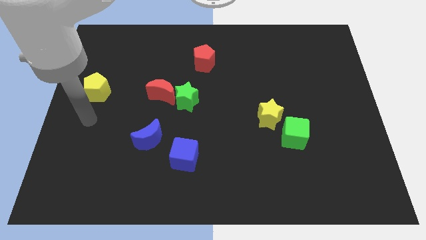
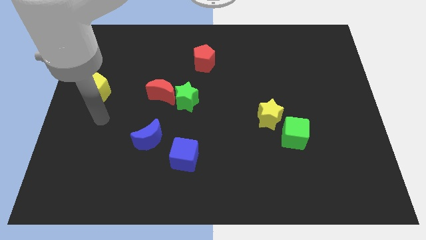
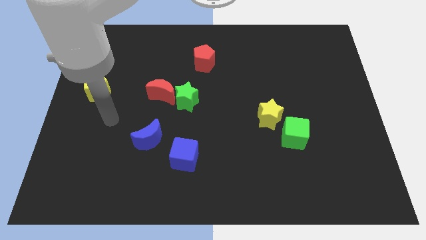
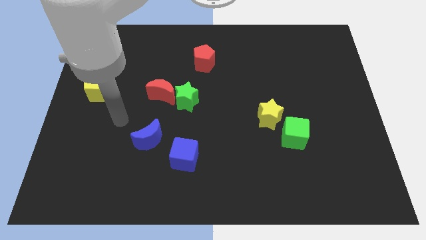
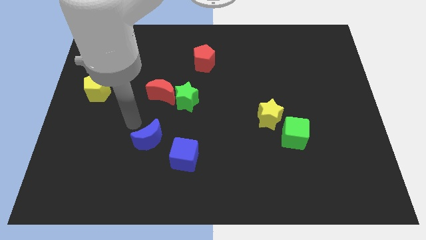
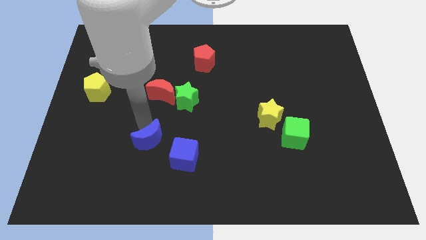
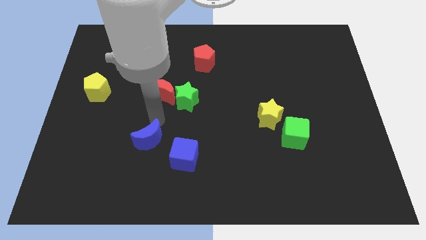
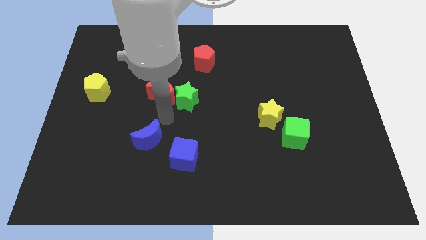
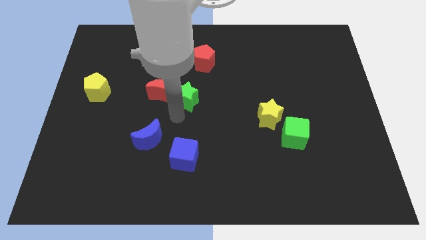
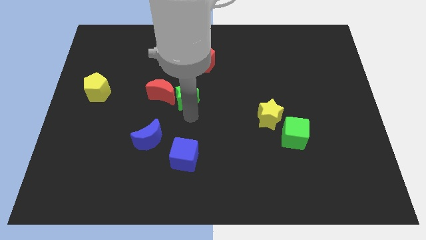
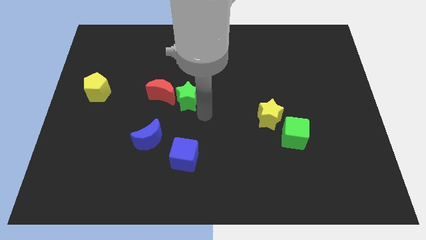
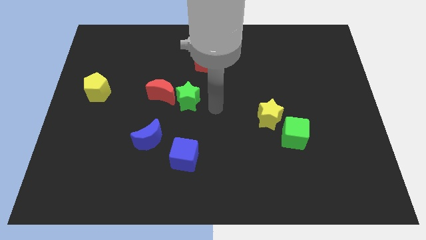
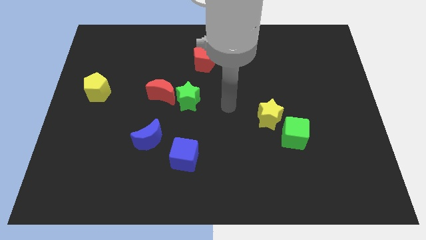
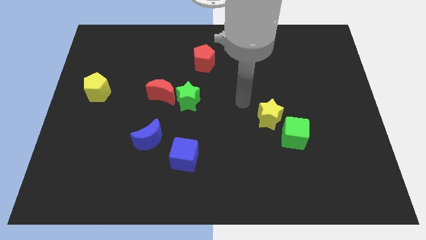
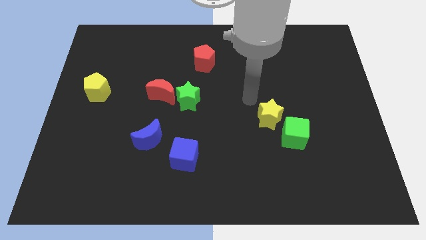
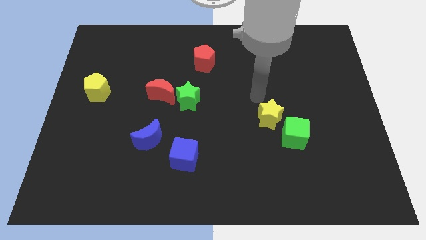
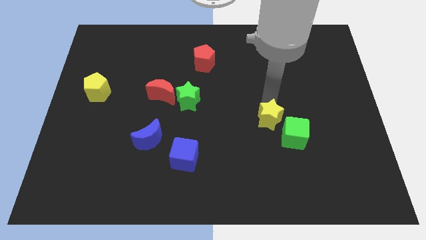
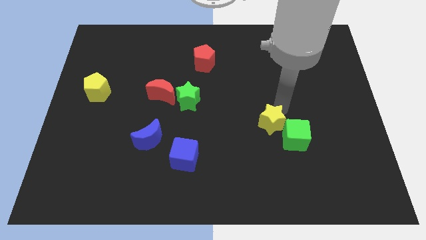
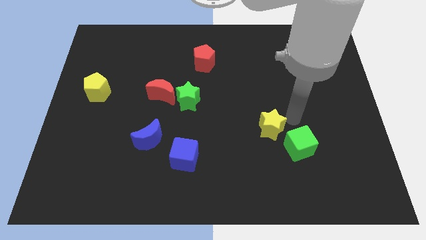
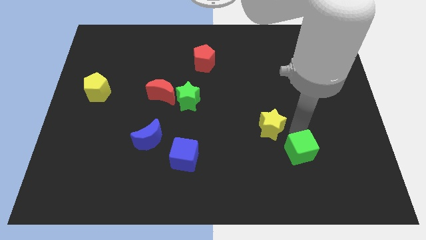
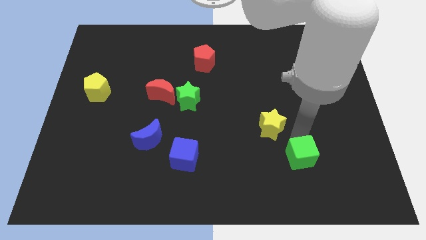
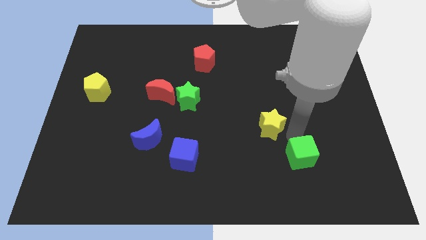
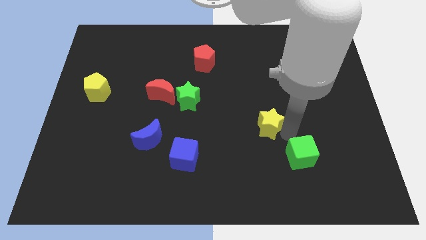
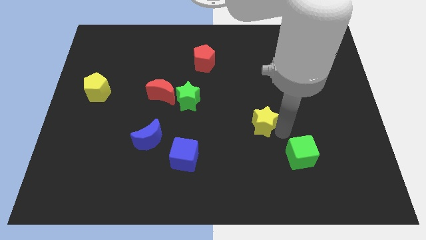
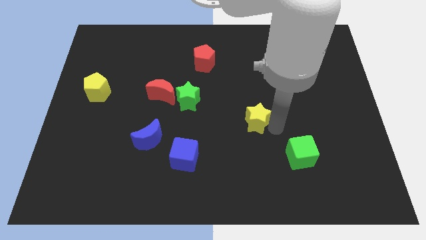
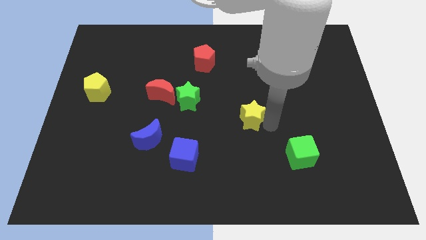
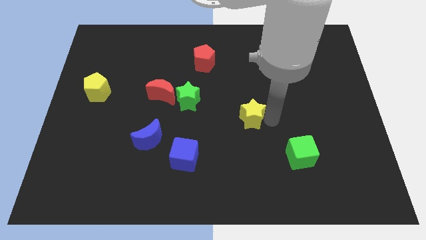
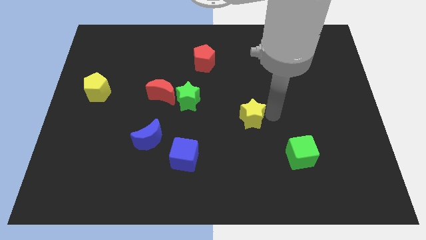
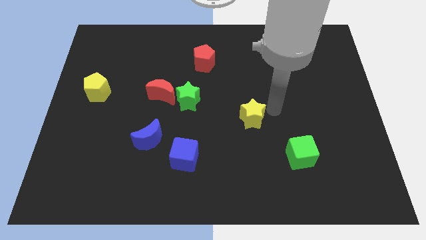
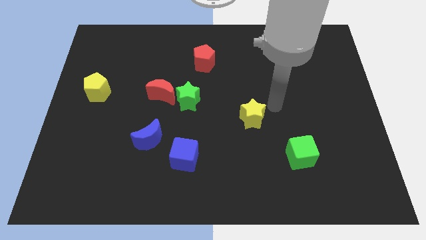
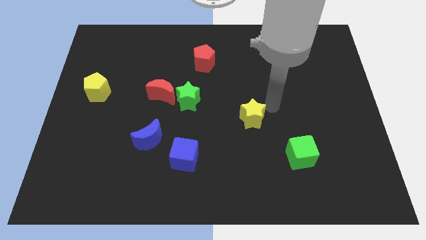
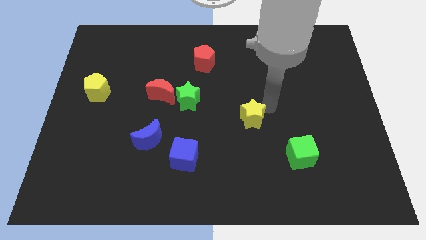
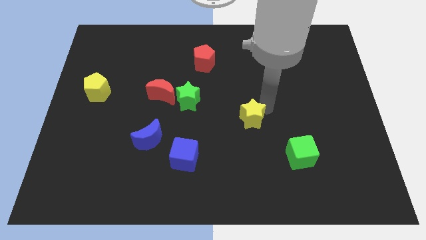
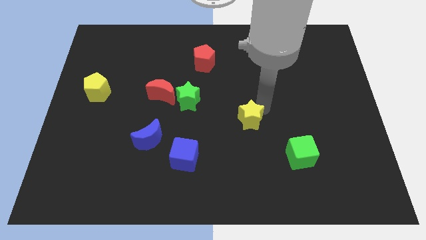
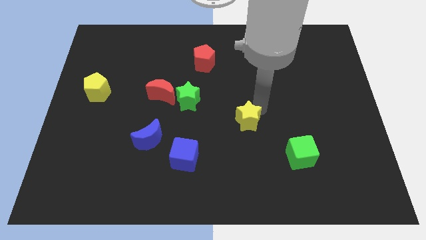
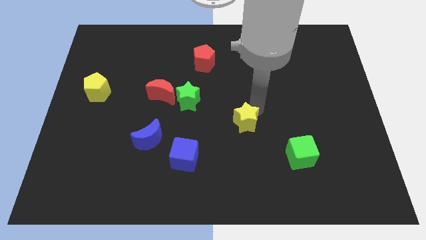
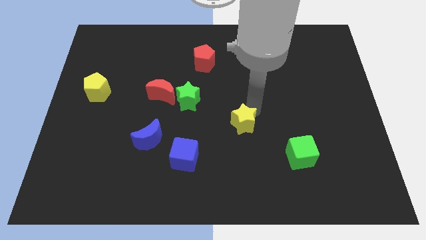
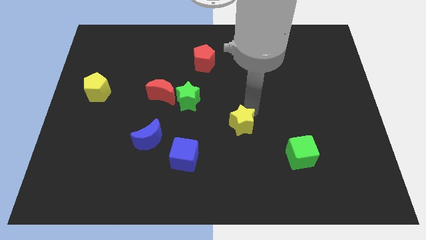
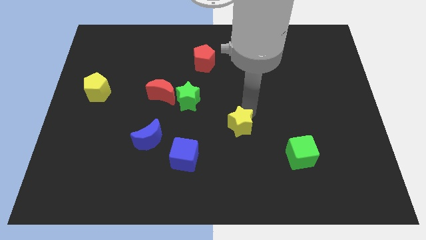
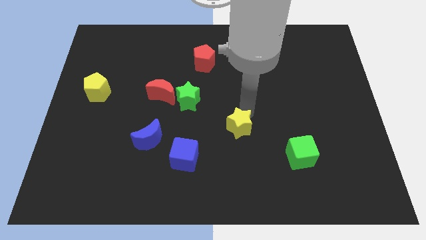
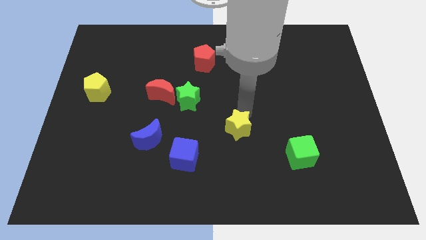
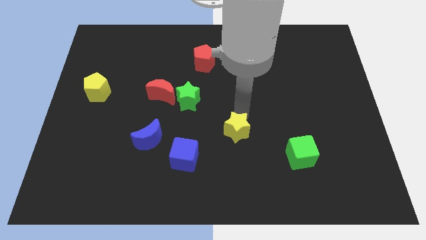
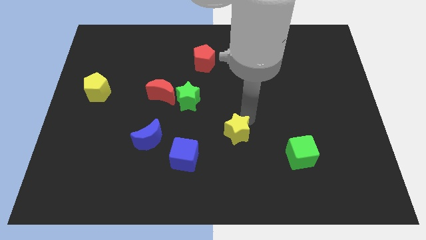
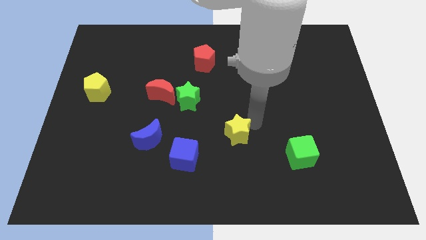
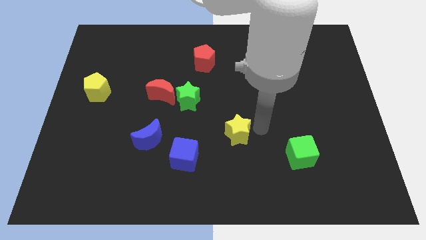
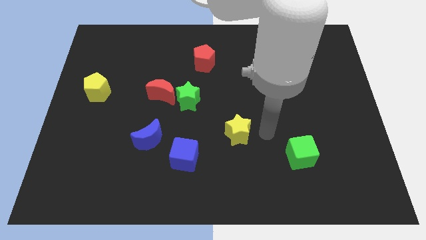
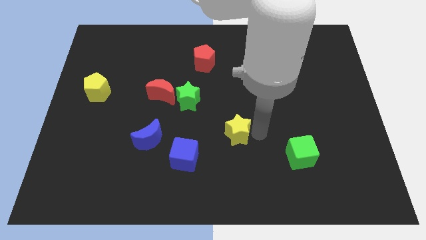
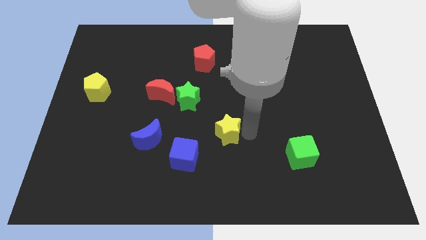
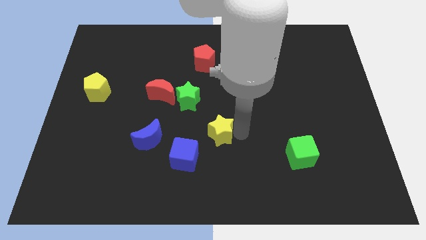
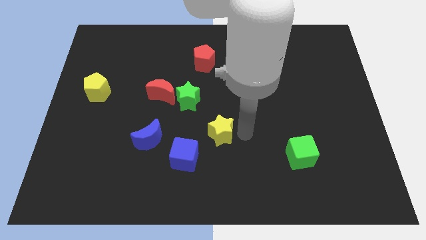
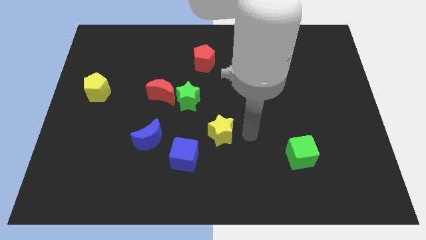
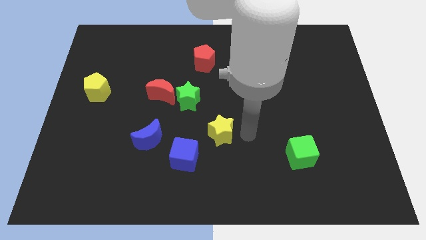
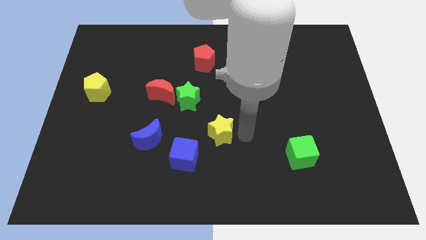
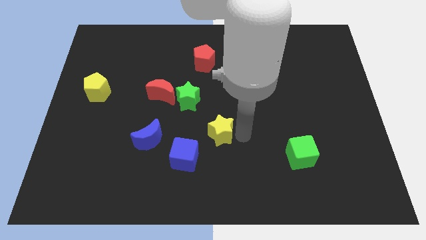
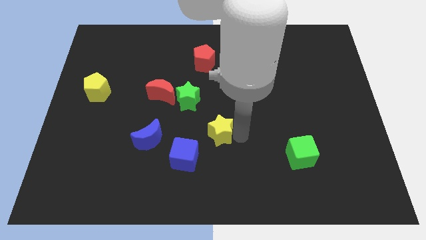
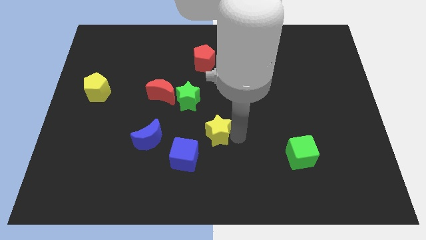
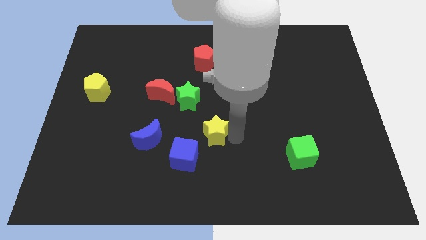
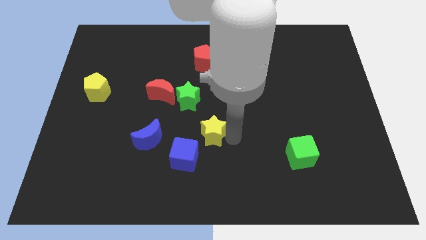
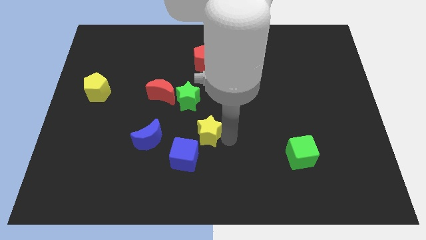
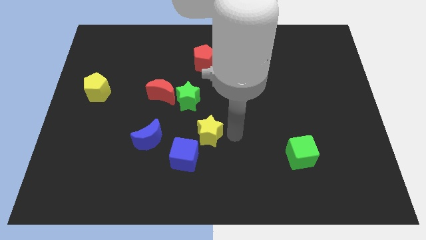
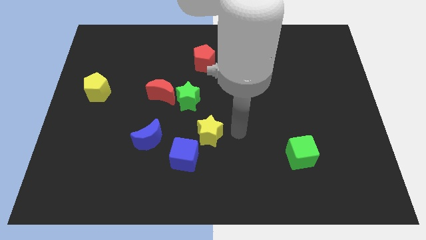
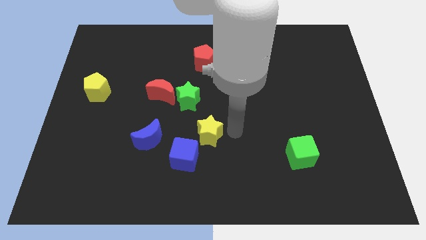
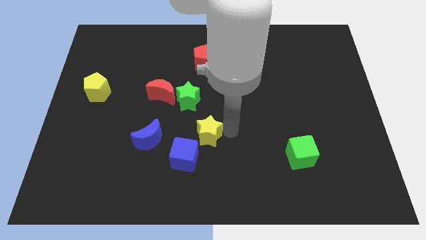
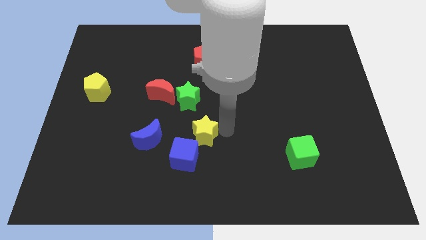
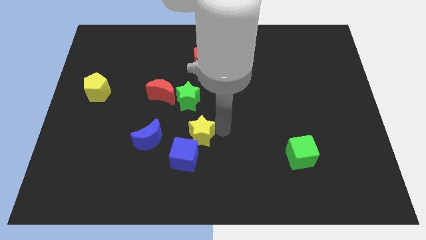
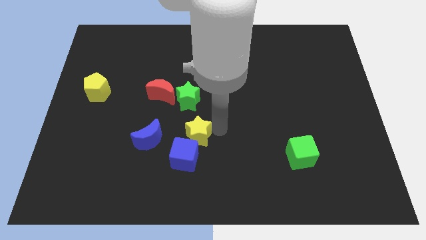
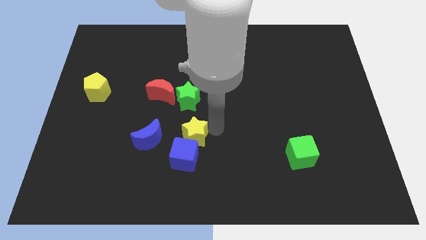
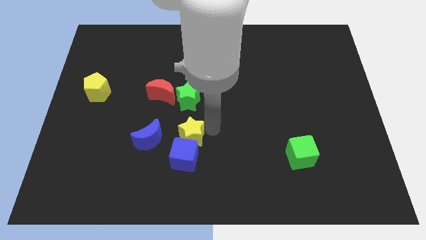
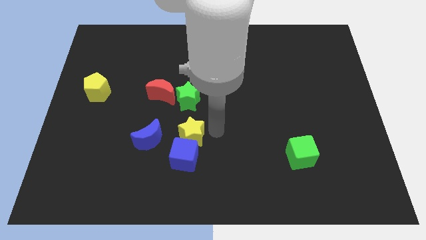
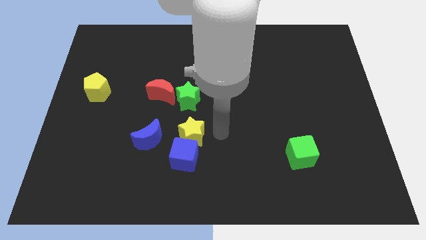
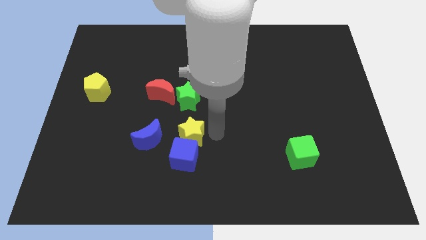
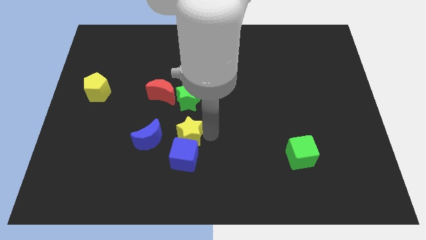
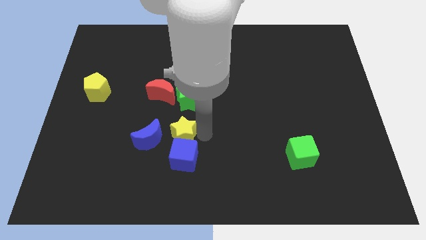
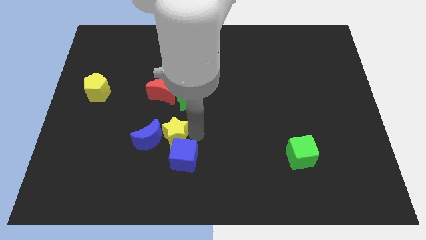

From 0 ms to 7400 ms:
move the yellow star to the blue moon

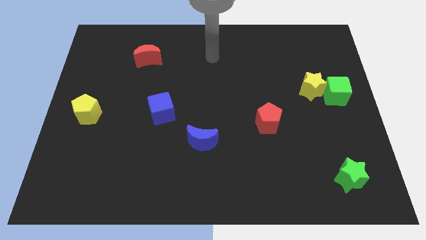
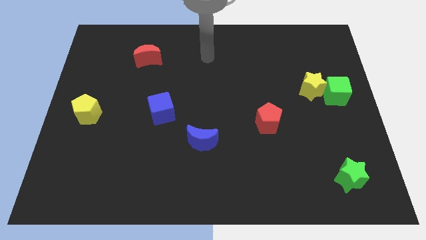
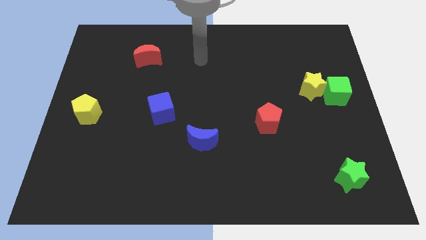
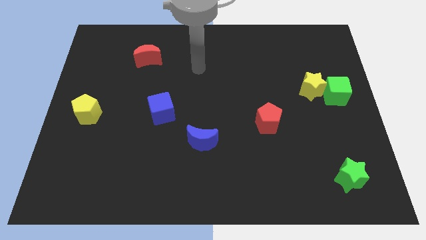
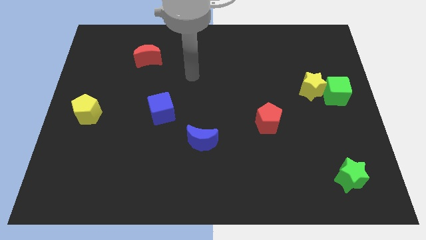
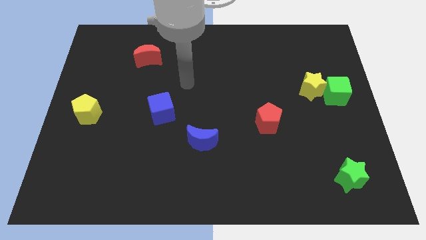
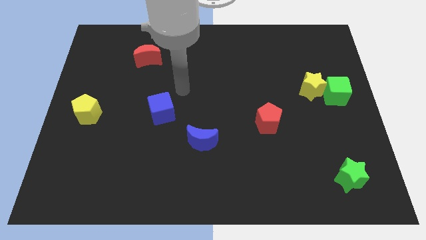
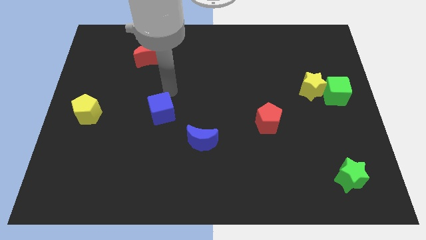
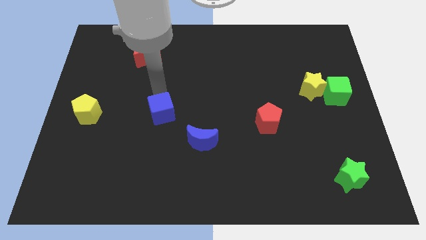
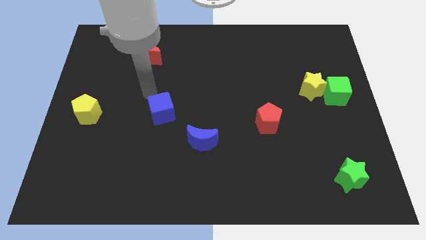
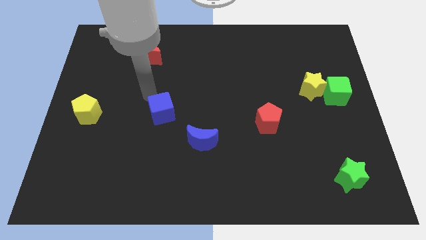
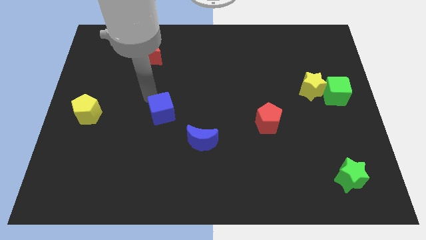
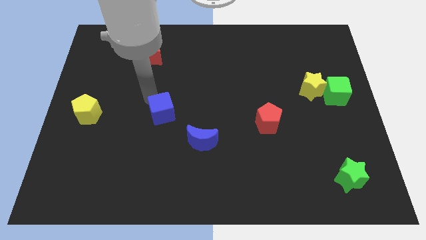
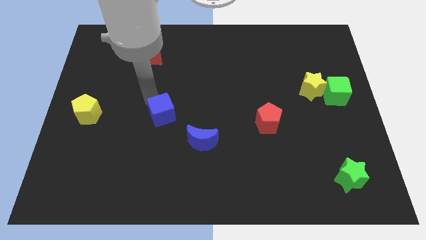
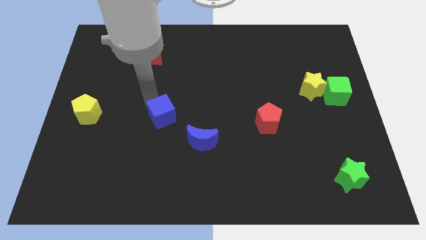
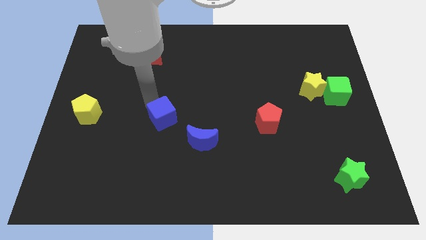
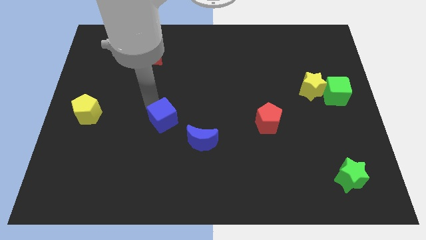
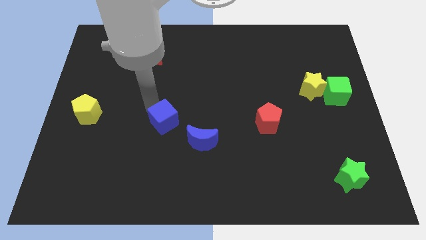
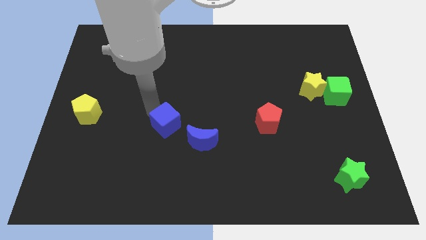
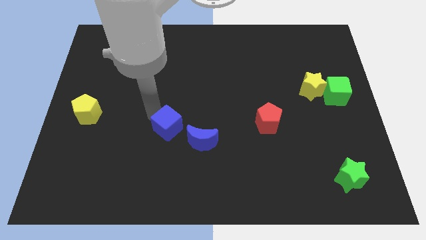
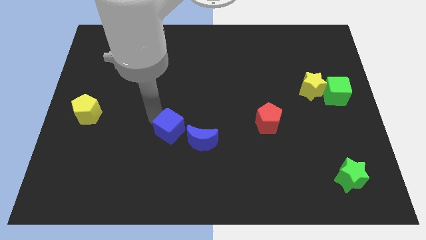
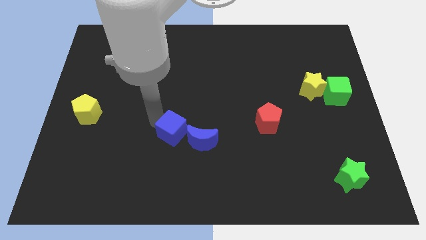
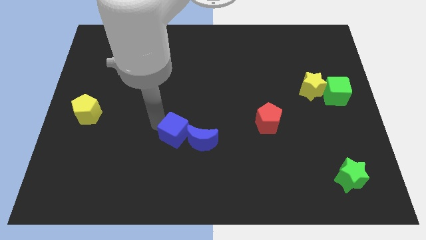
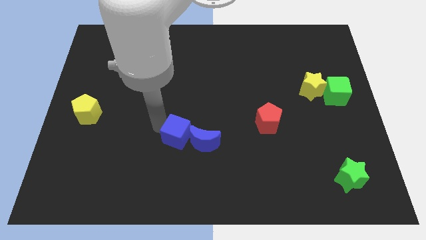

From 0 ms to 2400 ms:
move the blue cube to the blue moon
